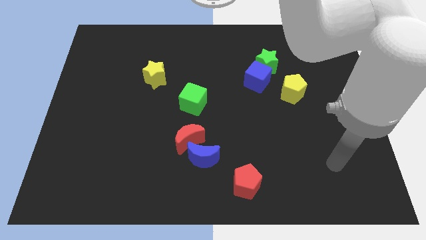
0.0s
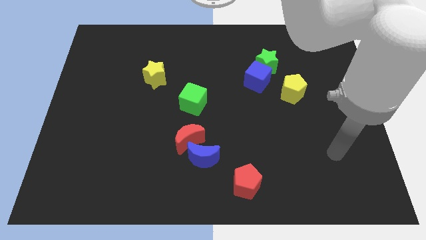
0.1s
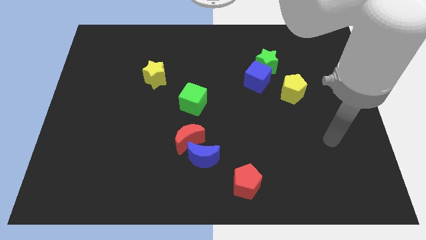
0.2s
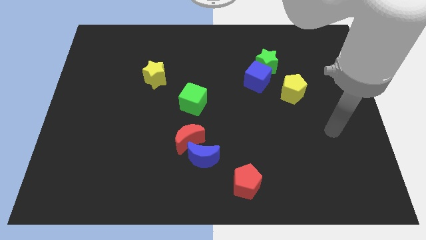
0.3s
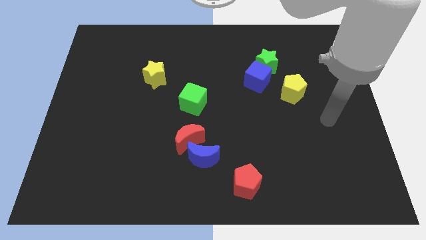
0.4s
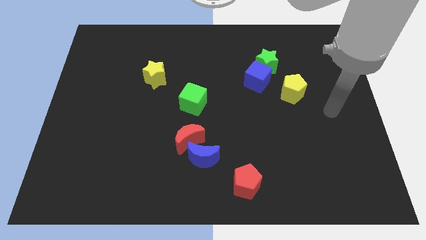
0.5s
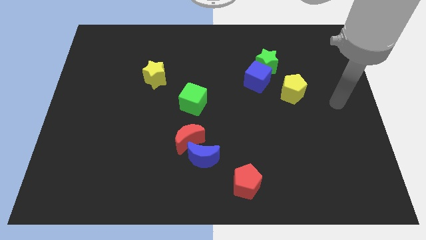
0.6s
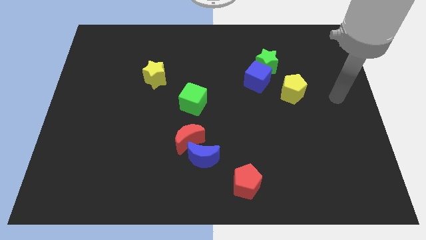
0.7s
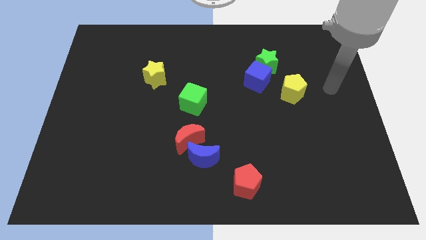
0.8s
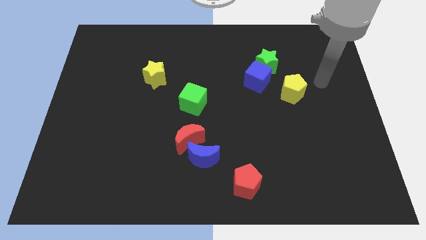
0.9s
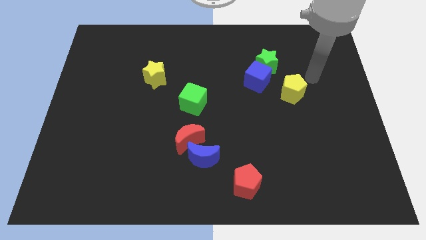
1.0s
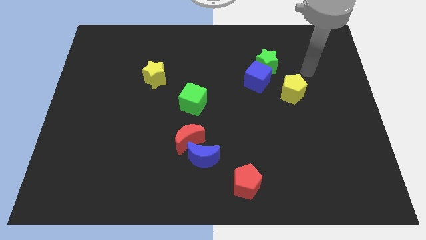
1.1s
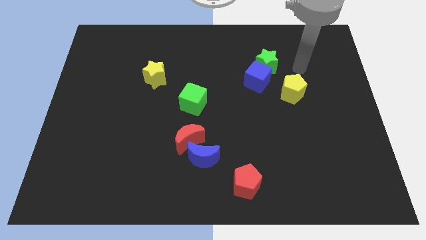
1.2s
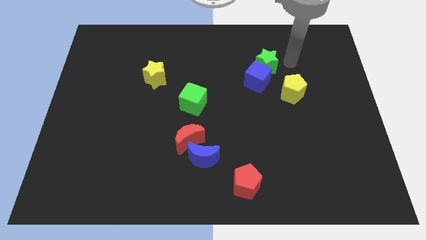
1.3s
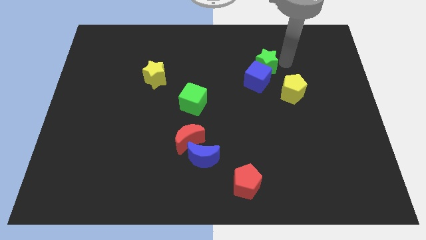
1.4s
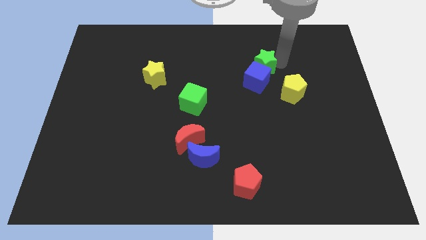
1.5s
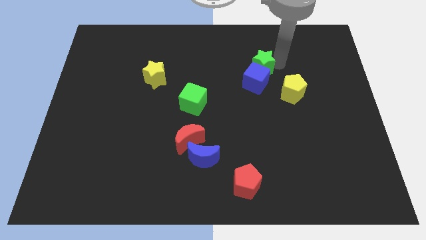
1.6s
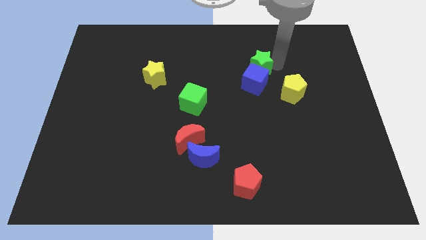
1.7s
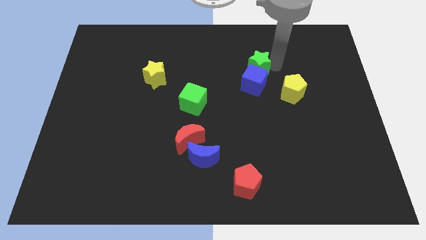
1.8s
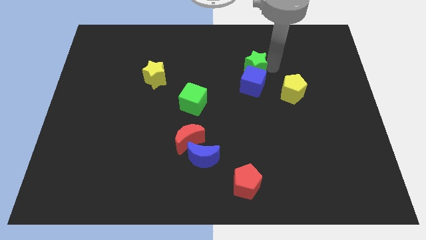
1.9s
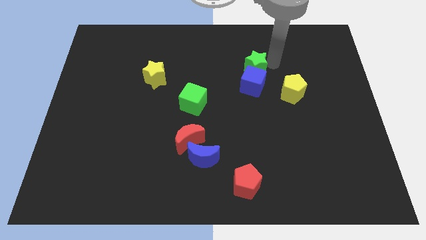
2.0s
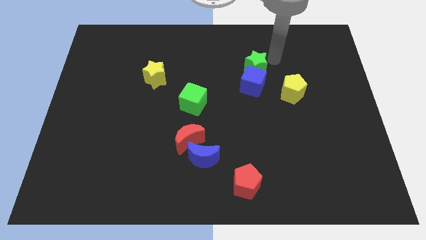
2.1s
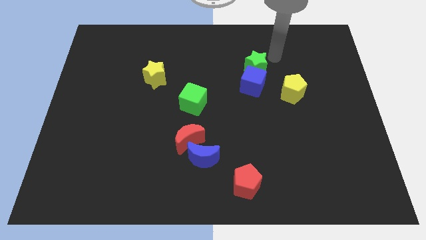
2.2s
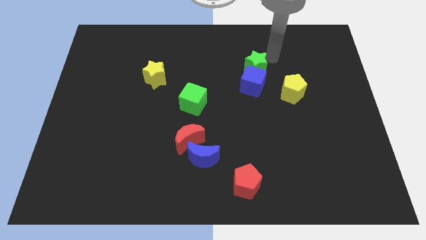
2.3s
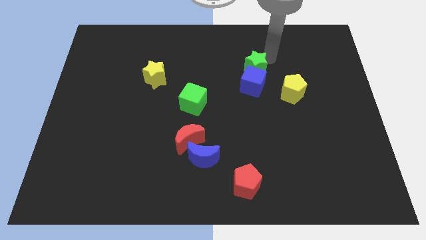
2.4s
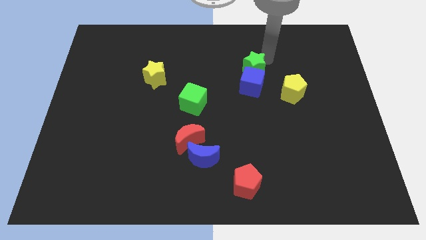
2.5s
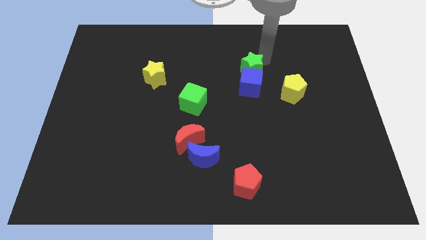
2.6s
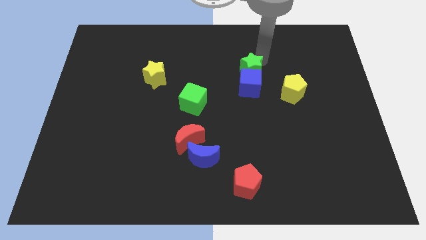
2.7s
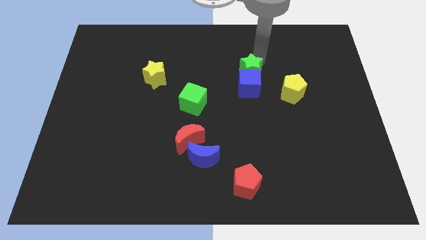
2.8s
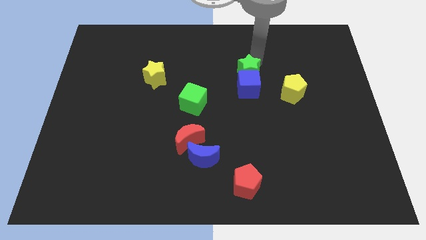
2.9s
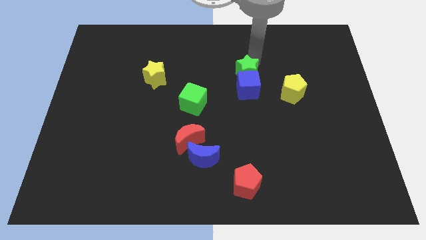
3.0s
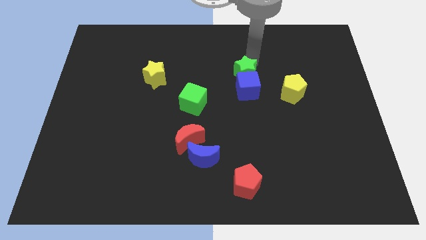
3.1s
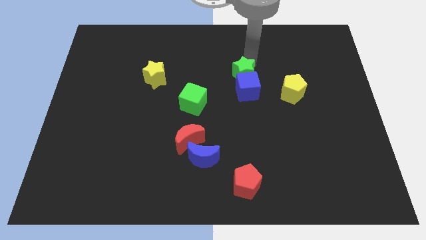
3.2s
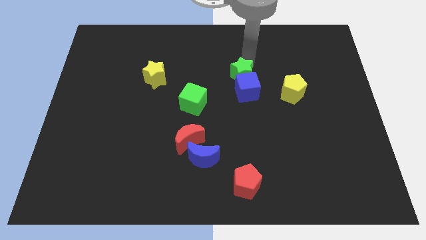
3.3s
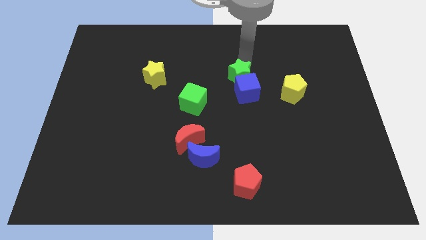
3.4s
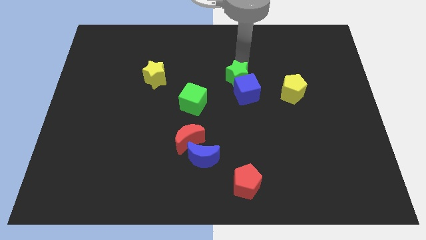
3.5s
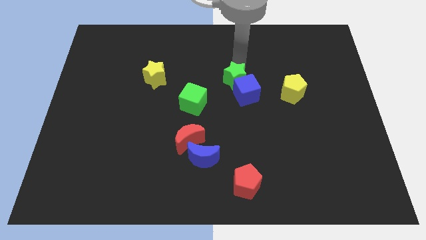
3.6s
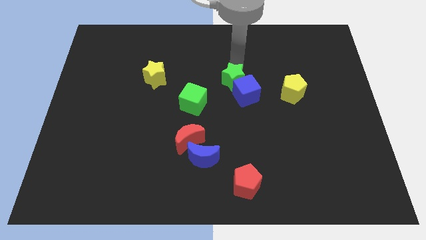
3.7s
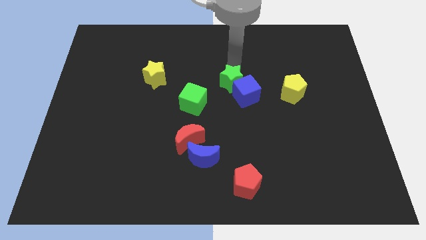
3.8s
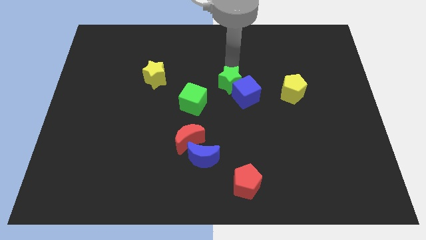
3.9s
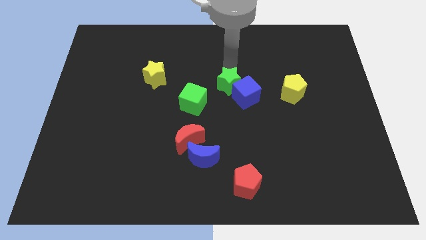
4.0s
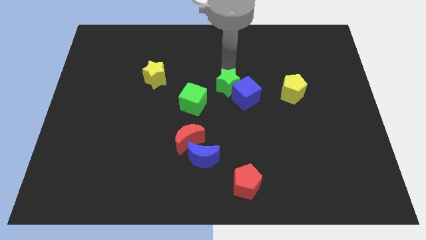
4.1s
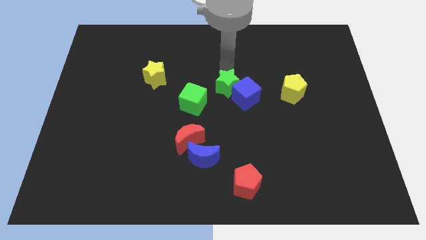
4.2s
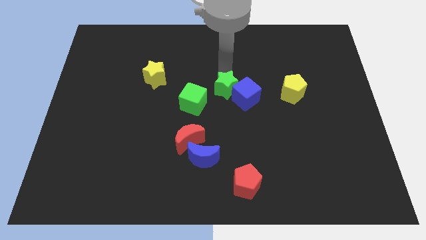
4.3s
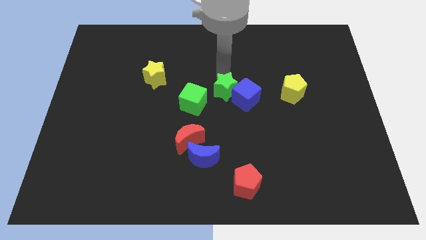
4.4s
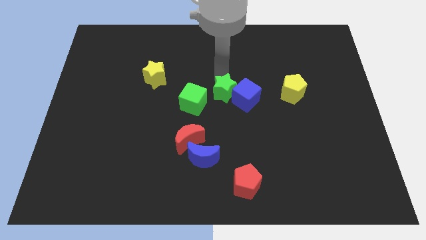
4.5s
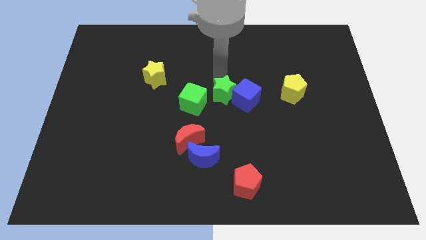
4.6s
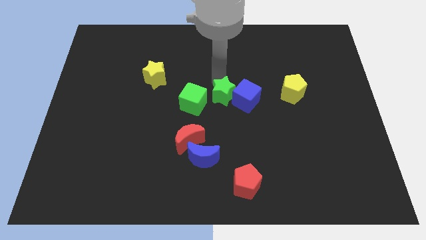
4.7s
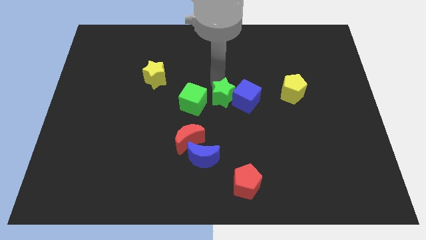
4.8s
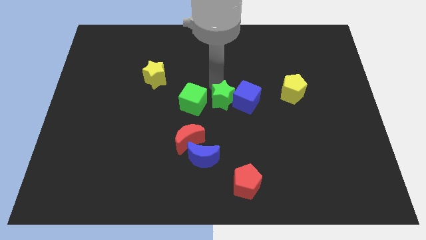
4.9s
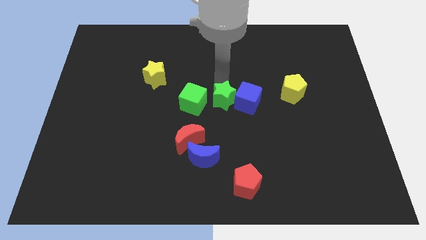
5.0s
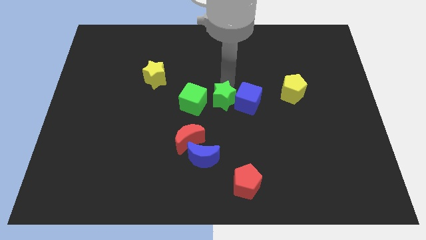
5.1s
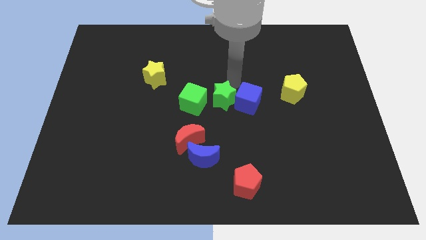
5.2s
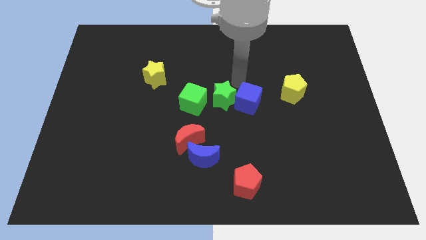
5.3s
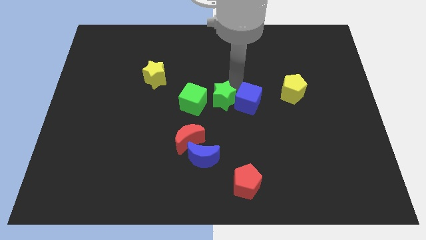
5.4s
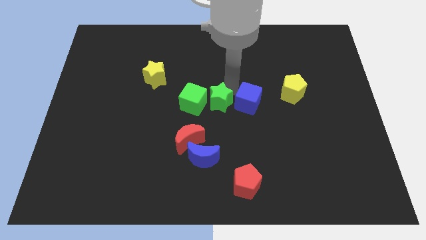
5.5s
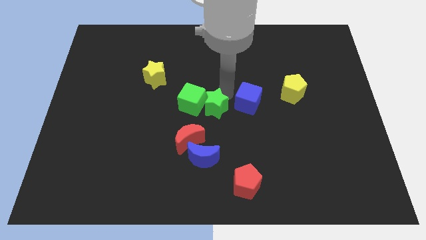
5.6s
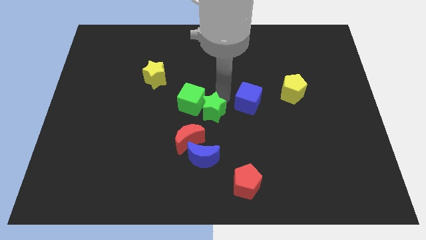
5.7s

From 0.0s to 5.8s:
push the green star diagonally down and to the left

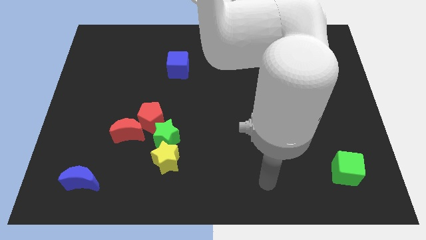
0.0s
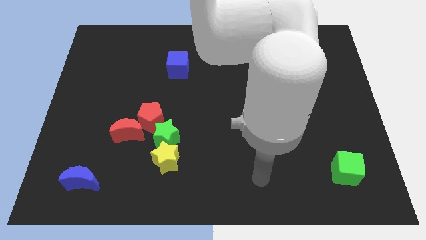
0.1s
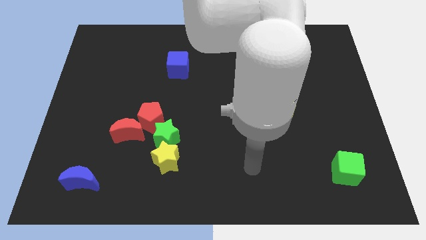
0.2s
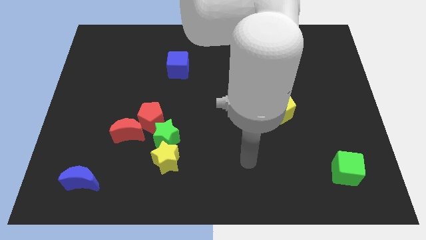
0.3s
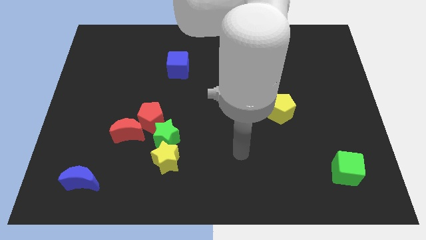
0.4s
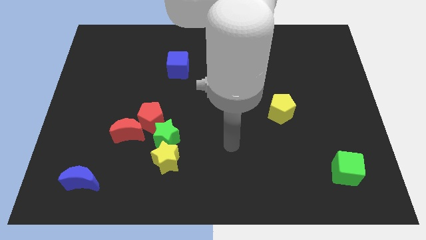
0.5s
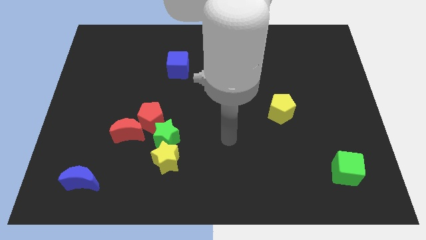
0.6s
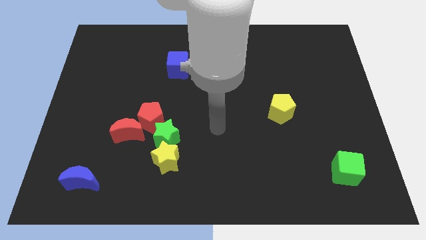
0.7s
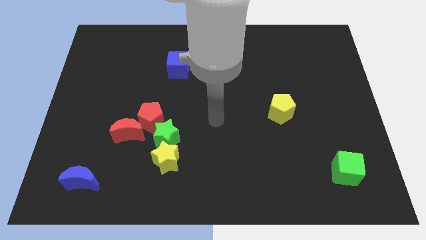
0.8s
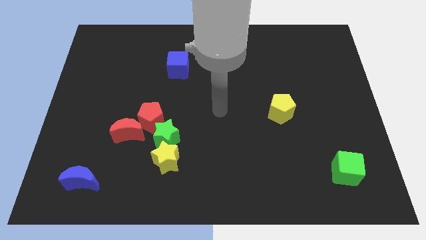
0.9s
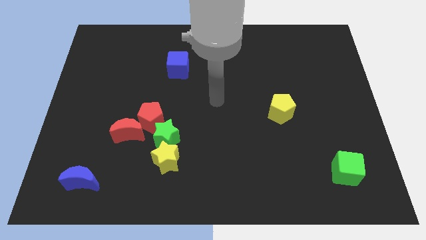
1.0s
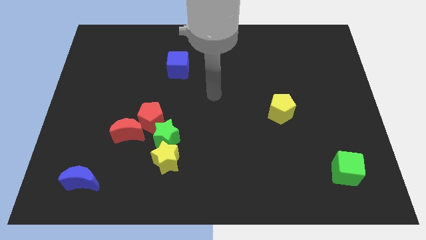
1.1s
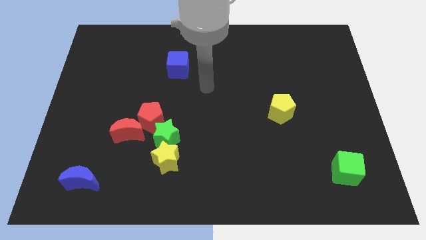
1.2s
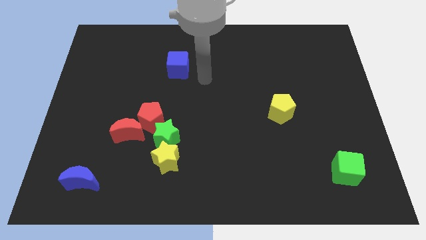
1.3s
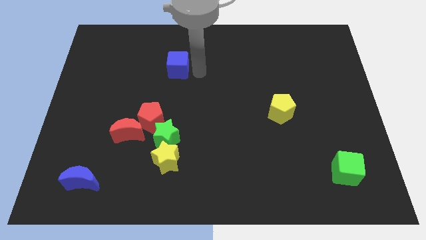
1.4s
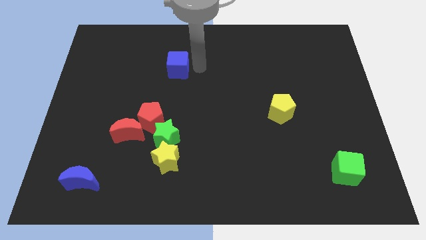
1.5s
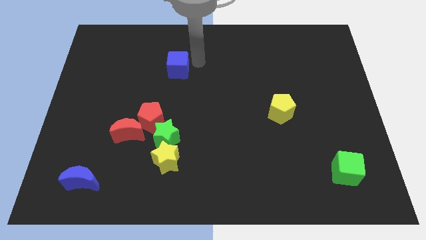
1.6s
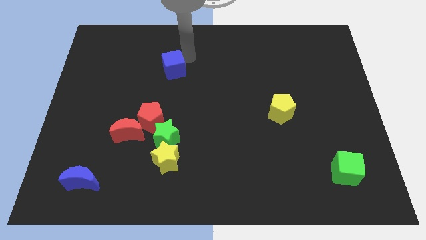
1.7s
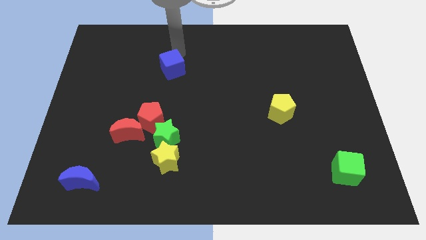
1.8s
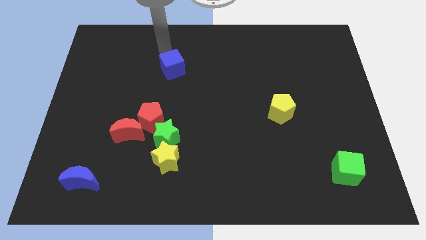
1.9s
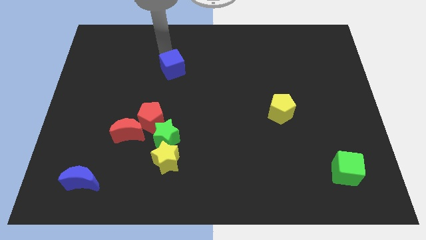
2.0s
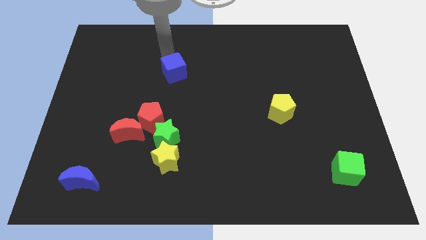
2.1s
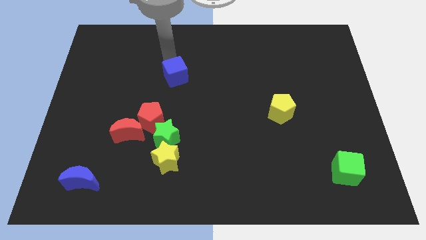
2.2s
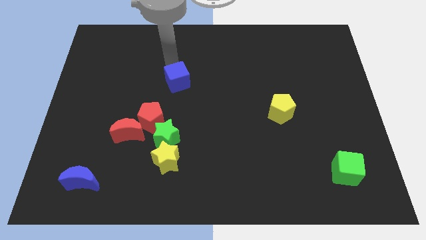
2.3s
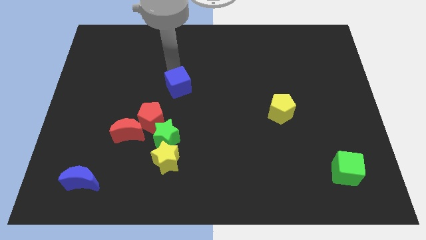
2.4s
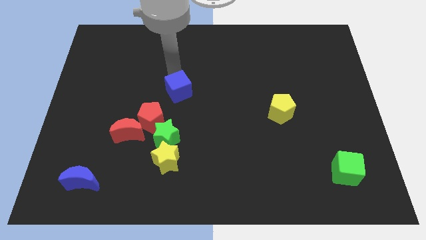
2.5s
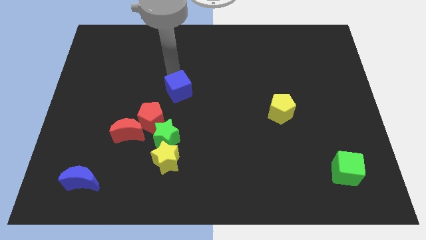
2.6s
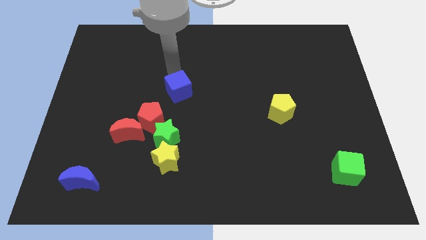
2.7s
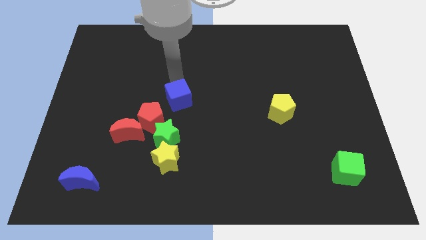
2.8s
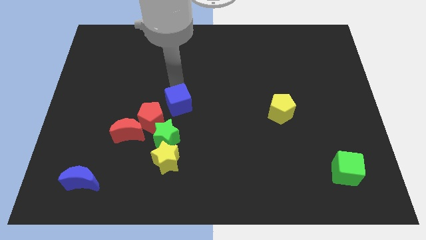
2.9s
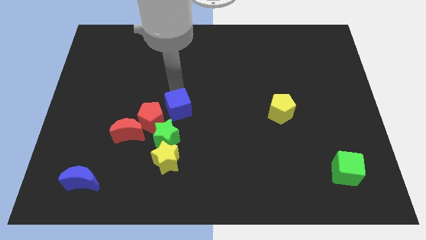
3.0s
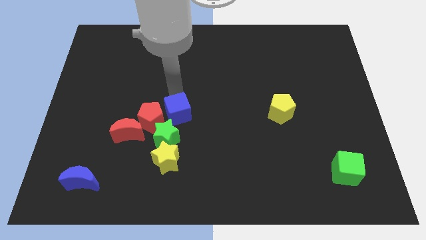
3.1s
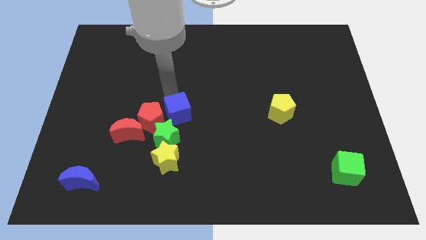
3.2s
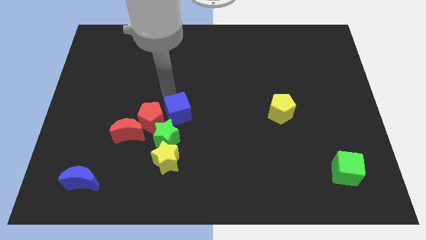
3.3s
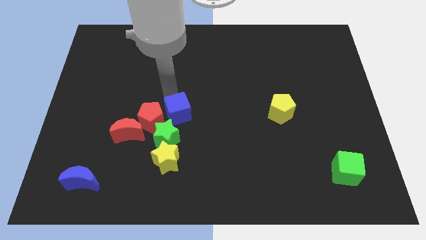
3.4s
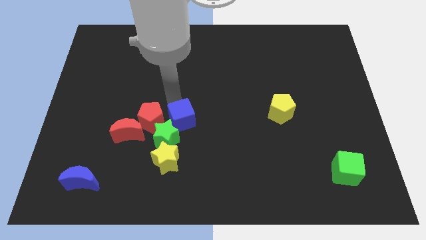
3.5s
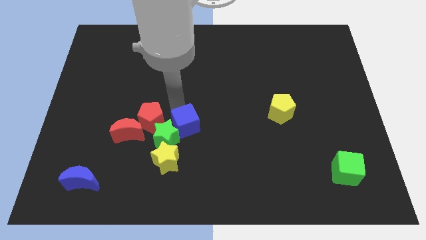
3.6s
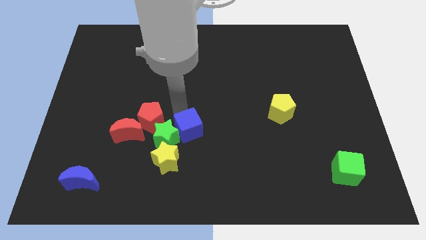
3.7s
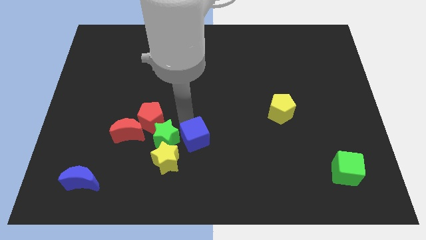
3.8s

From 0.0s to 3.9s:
push the blue cube downwards
